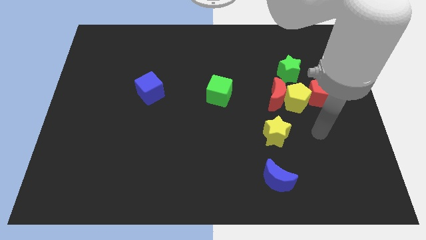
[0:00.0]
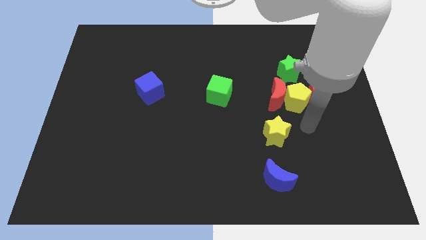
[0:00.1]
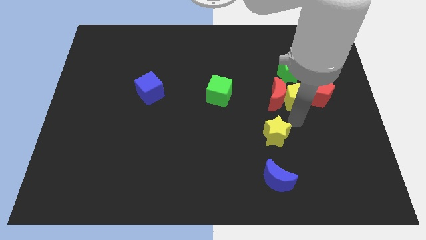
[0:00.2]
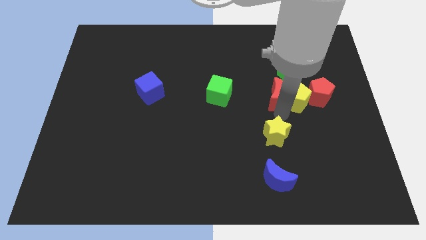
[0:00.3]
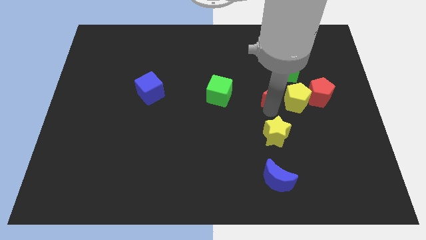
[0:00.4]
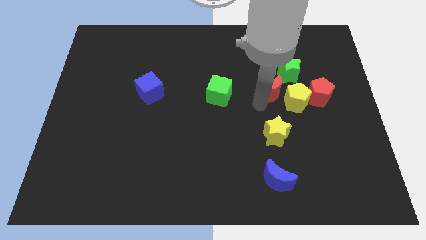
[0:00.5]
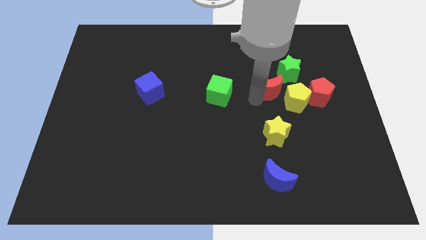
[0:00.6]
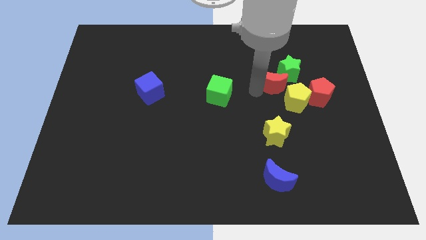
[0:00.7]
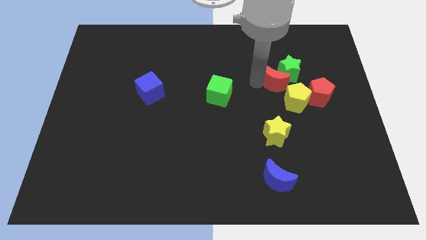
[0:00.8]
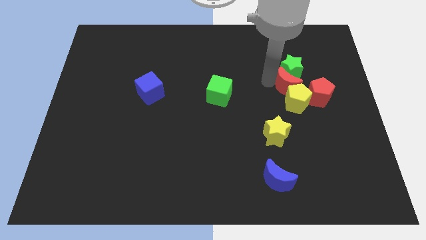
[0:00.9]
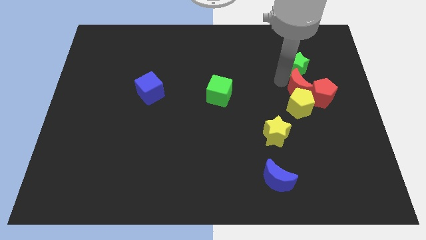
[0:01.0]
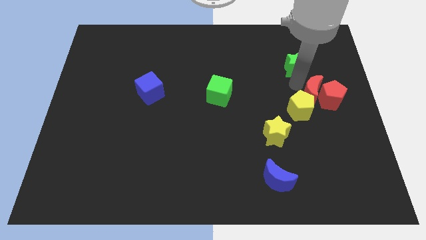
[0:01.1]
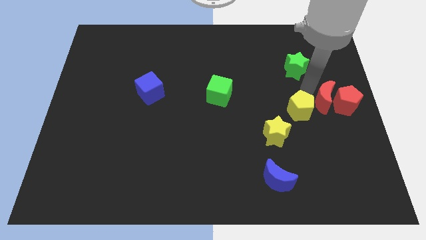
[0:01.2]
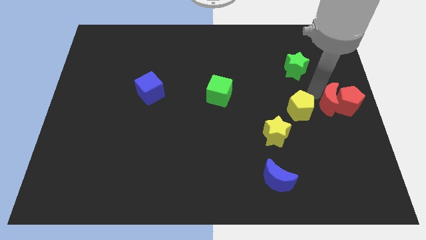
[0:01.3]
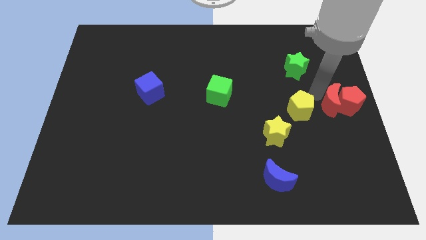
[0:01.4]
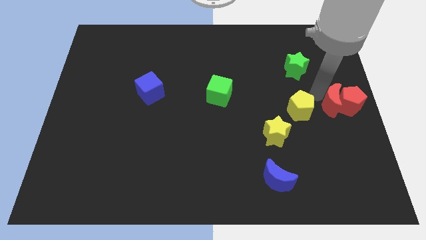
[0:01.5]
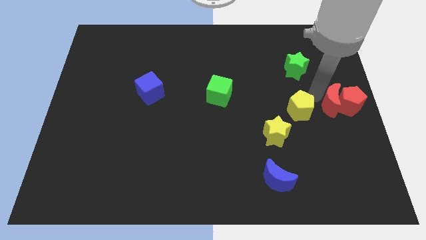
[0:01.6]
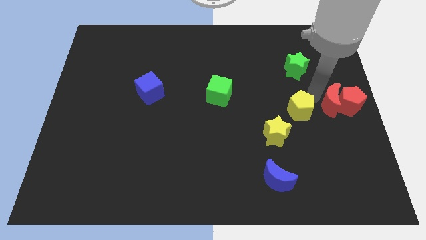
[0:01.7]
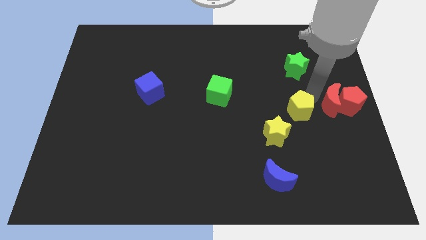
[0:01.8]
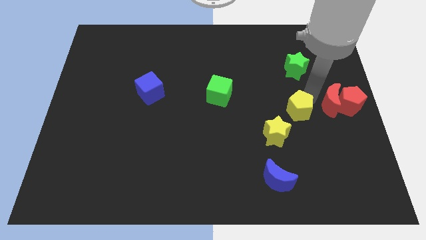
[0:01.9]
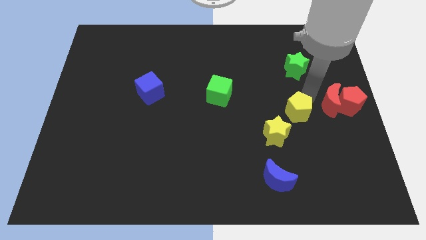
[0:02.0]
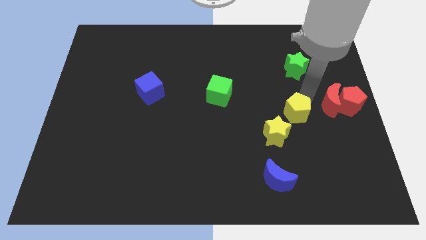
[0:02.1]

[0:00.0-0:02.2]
pull the yellow pentagon apart from the group

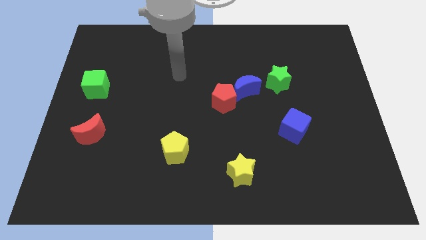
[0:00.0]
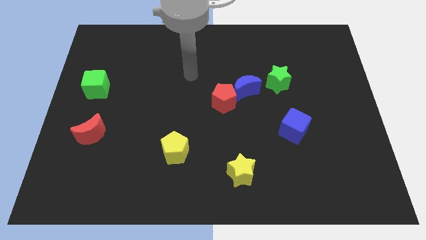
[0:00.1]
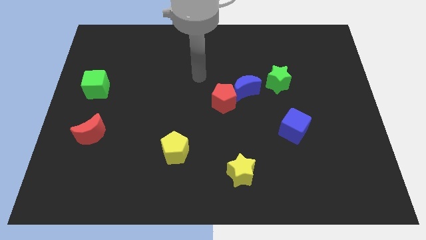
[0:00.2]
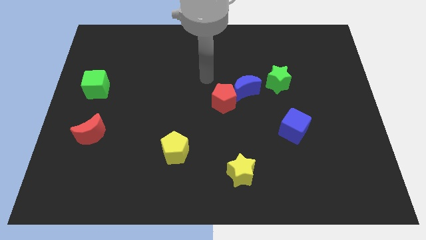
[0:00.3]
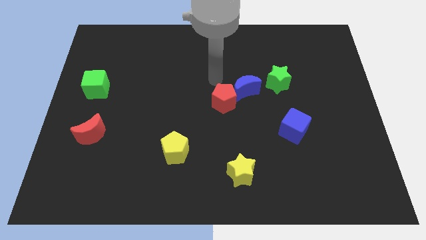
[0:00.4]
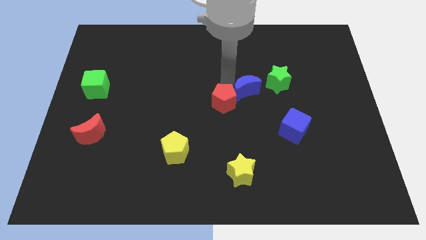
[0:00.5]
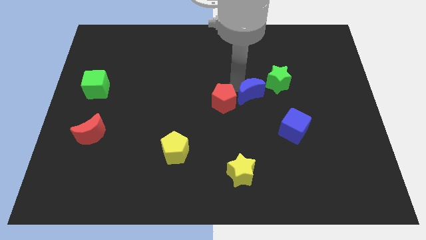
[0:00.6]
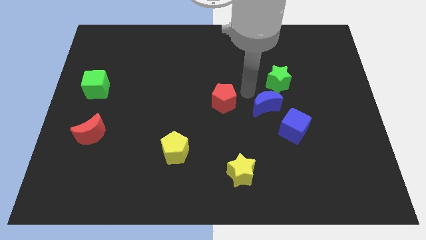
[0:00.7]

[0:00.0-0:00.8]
pull the red pentagon apart from the blue moon

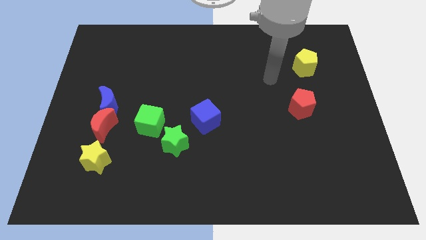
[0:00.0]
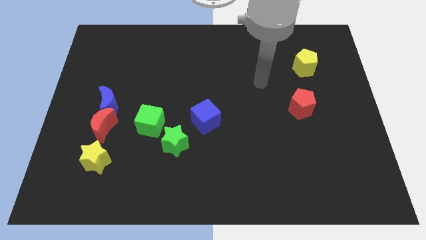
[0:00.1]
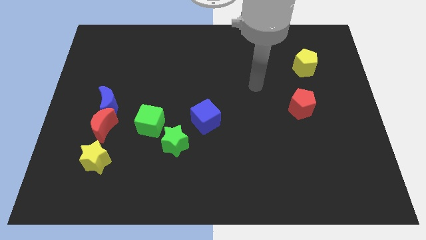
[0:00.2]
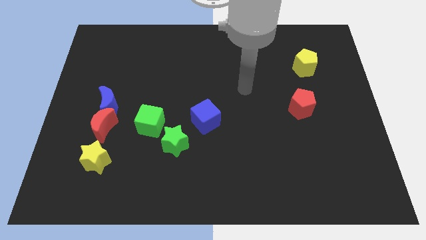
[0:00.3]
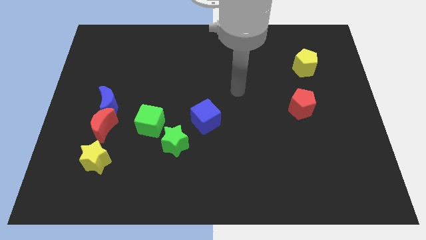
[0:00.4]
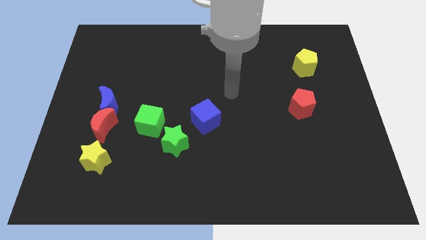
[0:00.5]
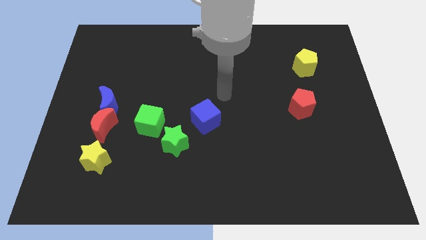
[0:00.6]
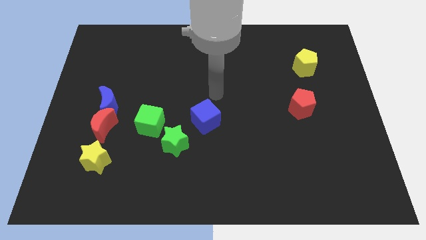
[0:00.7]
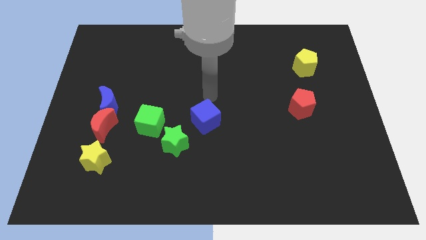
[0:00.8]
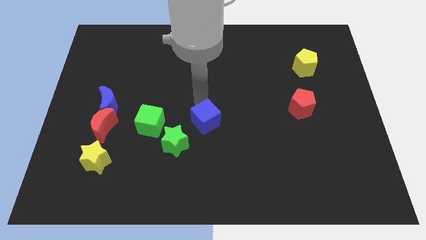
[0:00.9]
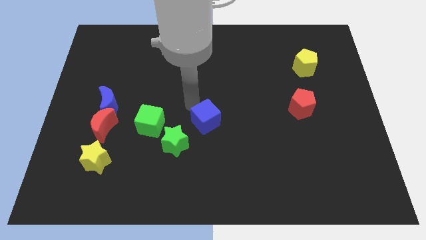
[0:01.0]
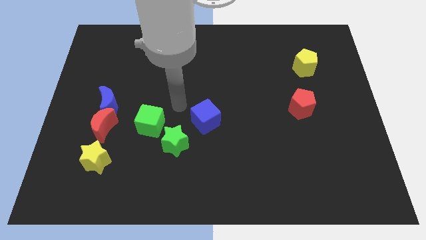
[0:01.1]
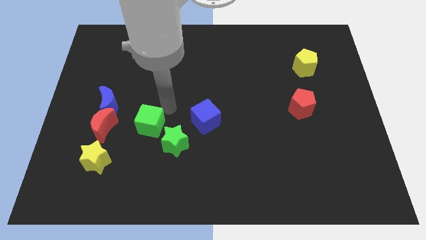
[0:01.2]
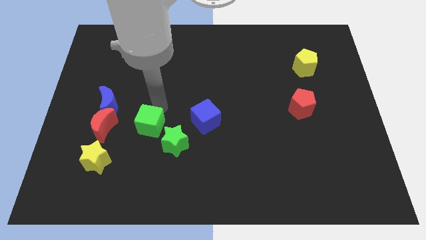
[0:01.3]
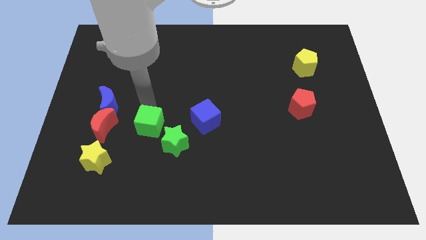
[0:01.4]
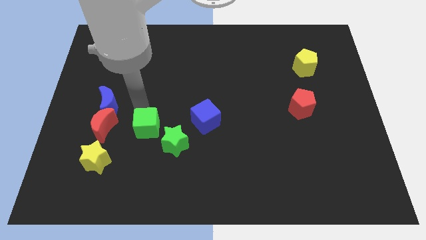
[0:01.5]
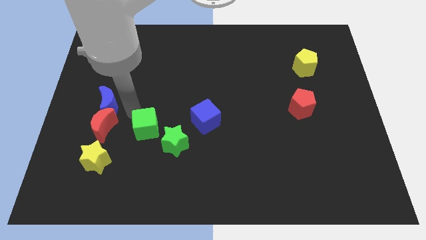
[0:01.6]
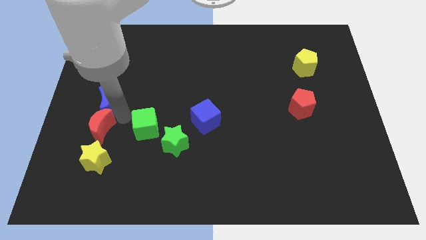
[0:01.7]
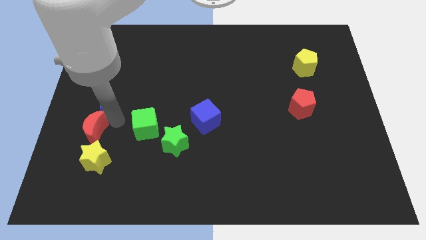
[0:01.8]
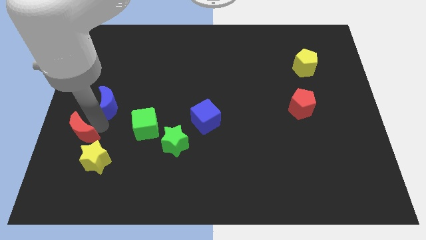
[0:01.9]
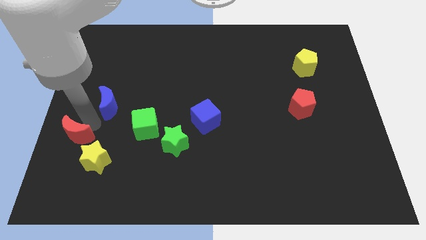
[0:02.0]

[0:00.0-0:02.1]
separate the blue moon from the red moon

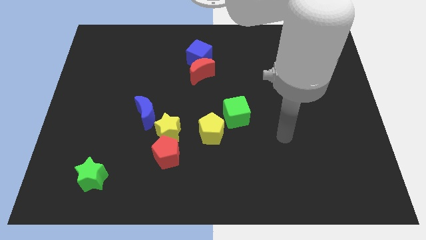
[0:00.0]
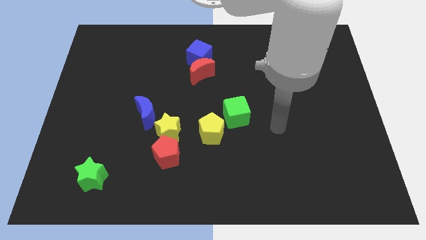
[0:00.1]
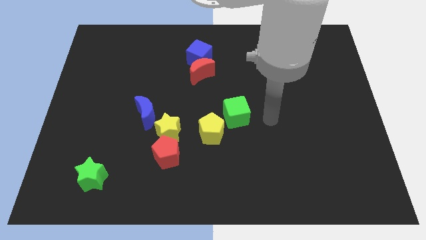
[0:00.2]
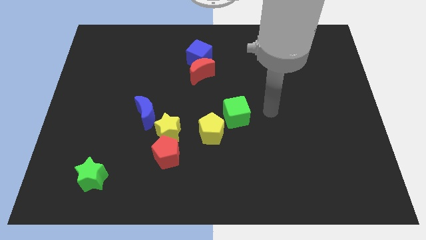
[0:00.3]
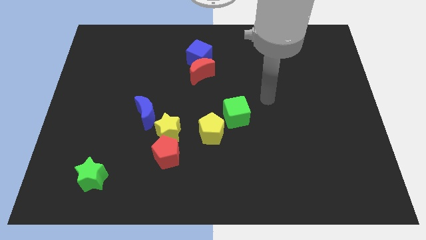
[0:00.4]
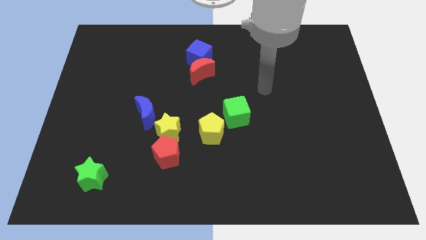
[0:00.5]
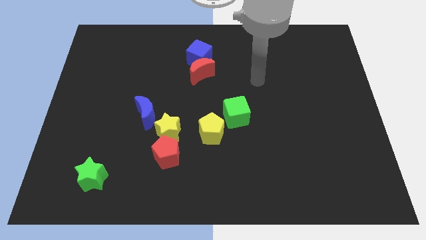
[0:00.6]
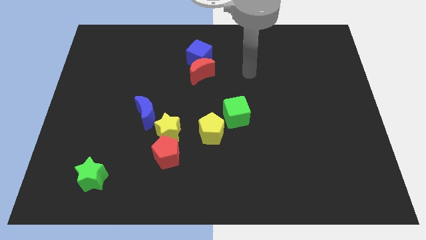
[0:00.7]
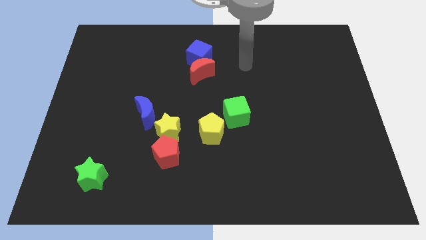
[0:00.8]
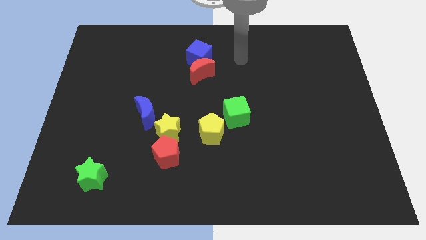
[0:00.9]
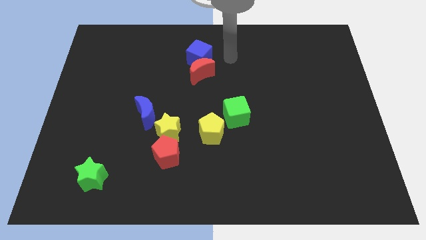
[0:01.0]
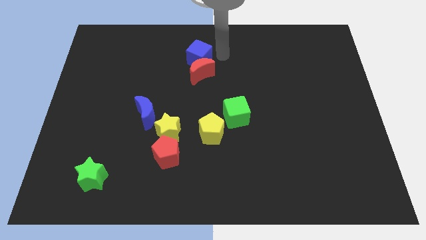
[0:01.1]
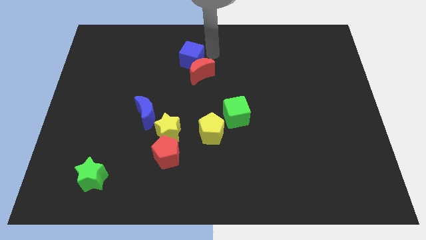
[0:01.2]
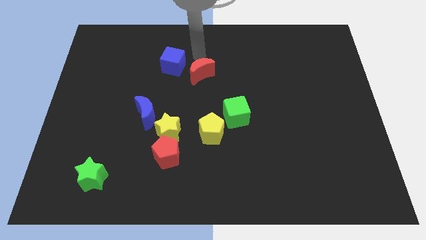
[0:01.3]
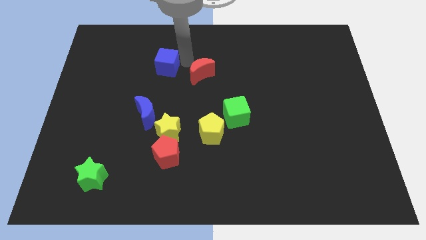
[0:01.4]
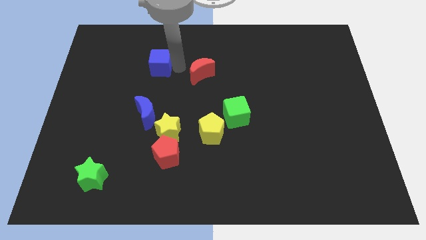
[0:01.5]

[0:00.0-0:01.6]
separate the red moon from the blue cube

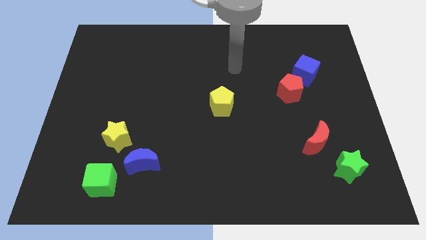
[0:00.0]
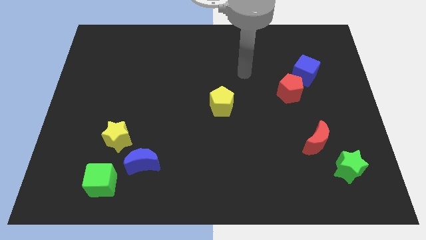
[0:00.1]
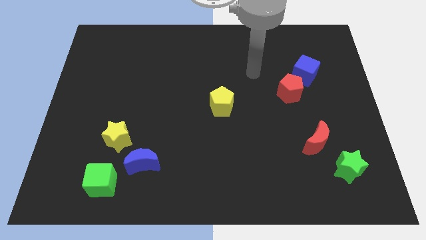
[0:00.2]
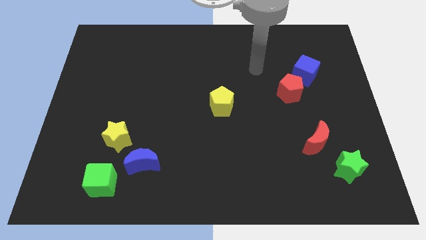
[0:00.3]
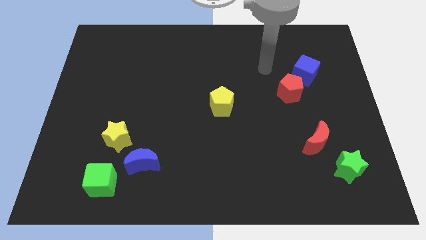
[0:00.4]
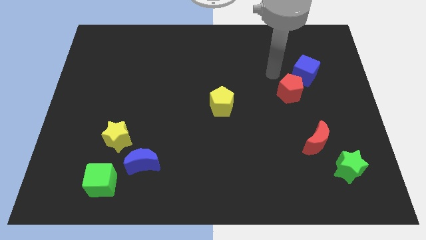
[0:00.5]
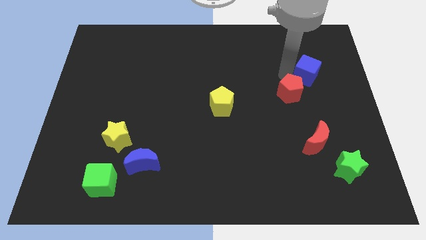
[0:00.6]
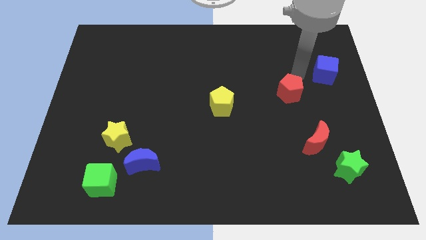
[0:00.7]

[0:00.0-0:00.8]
pull the red pentagon apart from the blue cube

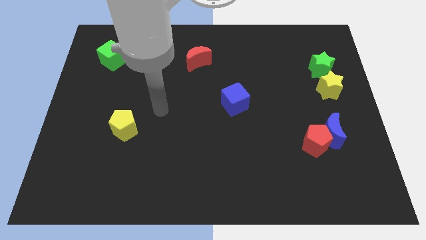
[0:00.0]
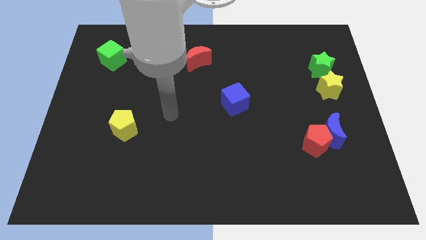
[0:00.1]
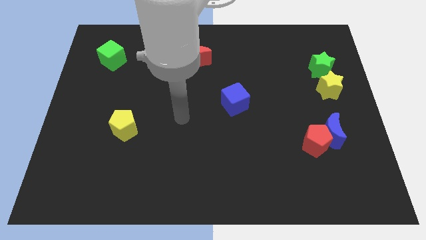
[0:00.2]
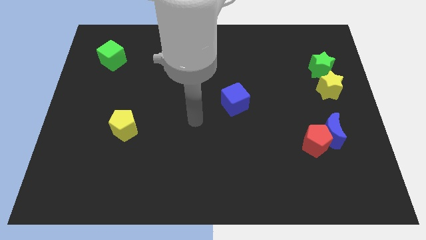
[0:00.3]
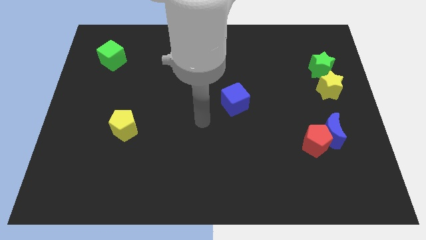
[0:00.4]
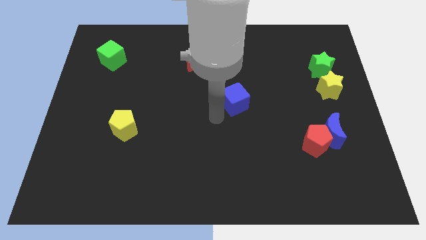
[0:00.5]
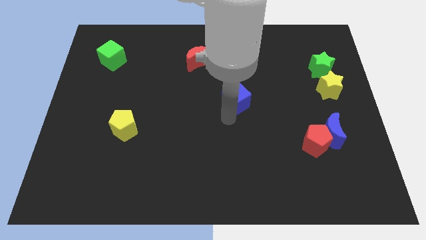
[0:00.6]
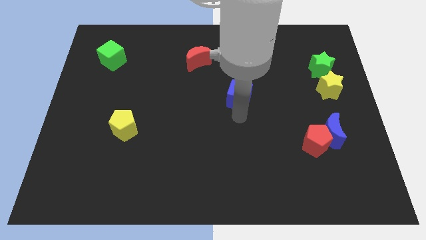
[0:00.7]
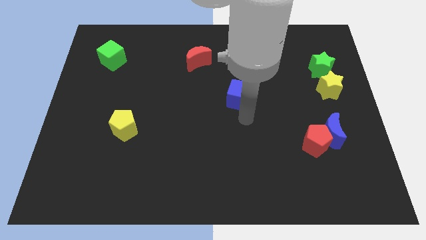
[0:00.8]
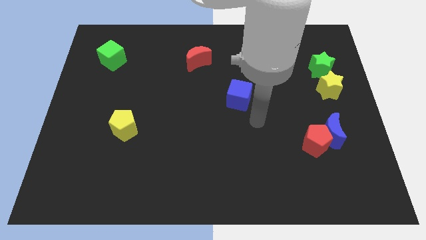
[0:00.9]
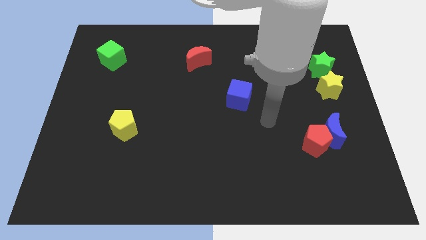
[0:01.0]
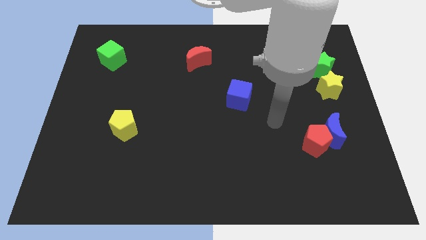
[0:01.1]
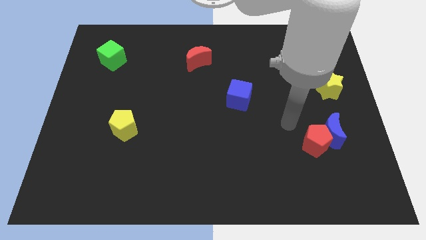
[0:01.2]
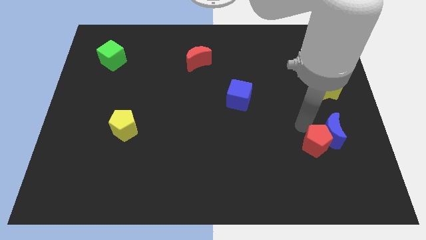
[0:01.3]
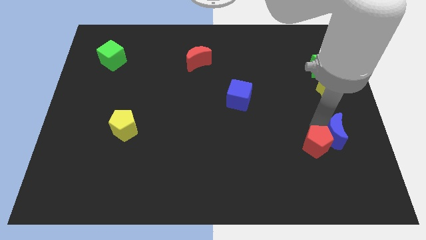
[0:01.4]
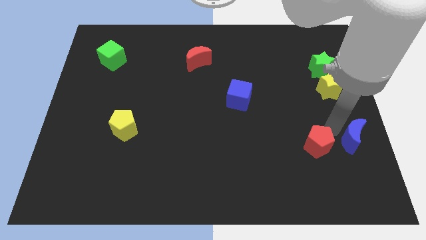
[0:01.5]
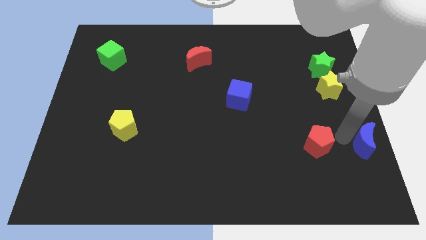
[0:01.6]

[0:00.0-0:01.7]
separate the red pentagon from the blue moon

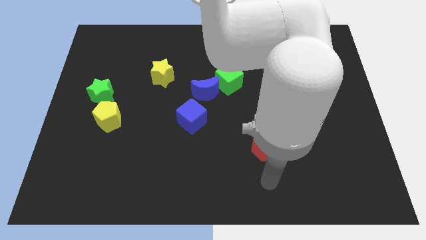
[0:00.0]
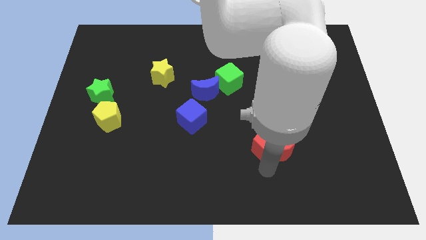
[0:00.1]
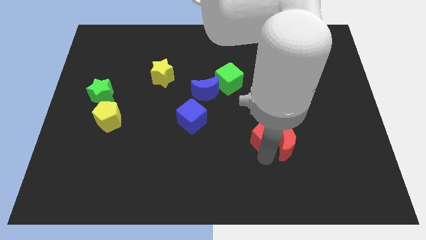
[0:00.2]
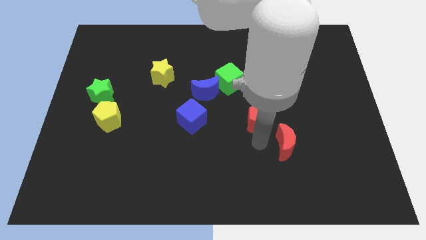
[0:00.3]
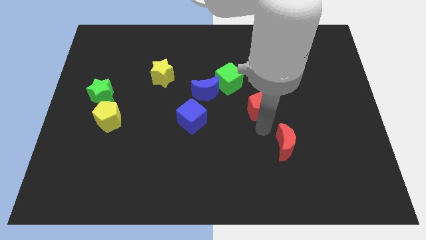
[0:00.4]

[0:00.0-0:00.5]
pull the red moon apart from the red pentagon
